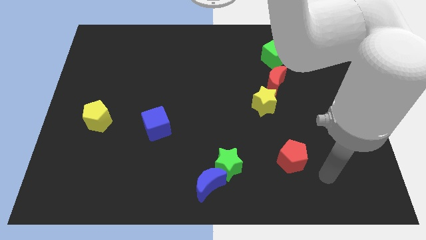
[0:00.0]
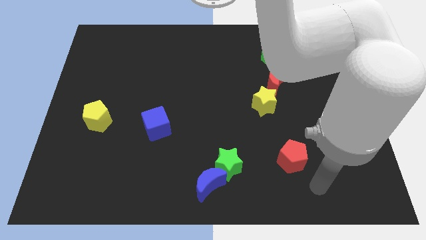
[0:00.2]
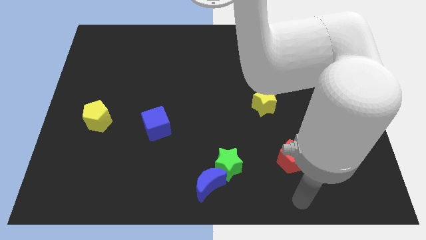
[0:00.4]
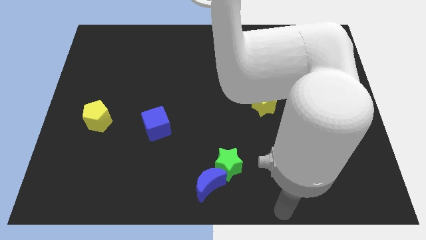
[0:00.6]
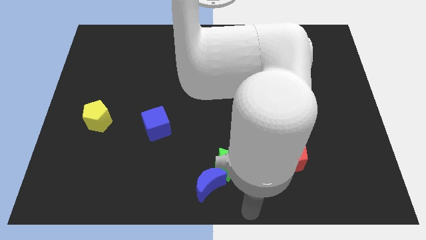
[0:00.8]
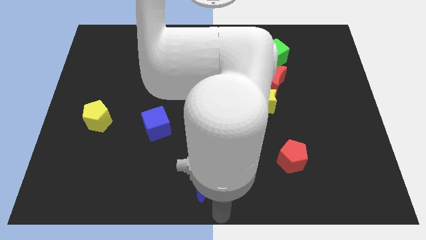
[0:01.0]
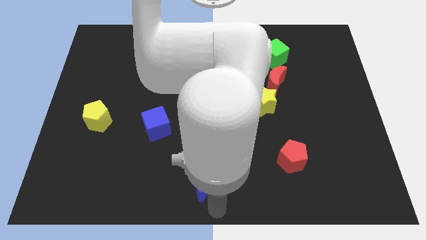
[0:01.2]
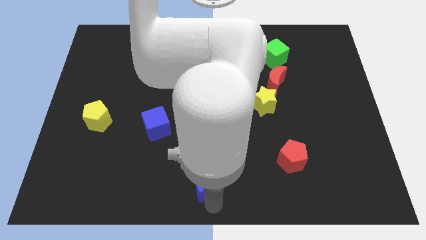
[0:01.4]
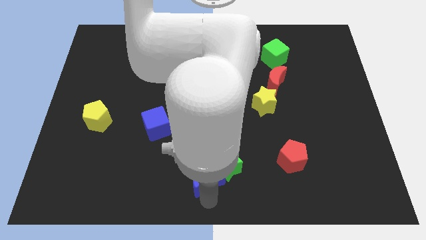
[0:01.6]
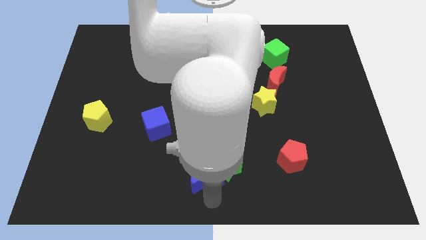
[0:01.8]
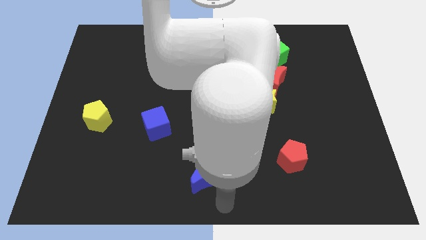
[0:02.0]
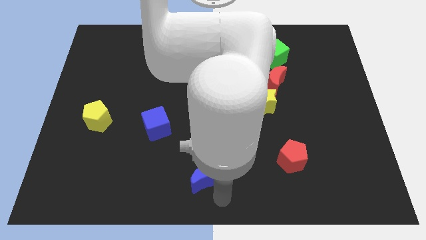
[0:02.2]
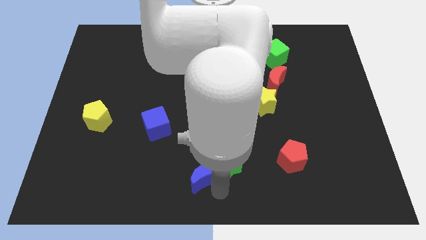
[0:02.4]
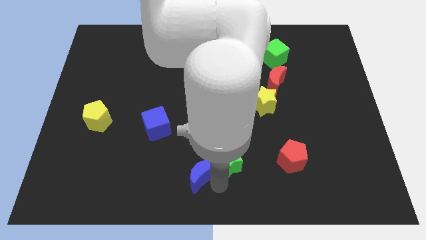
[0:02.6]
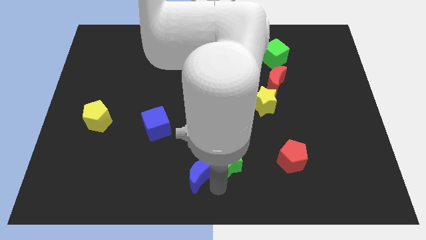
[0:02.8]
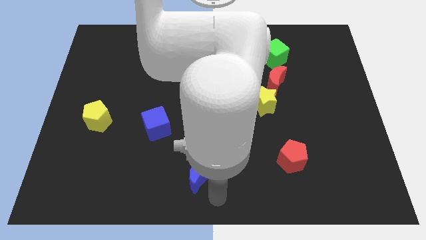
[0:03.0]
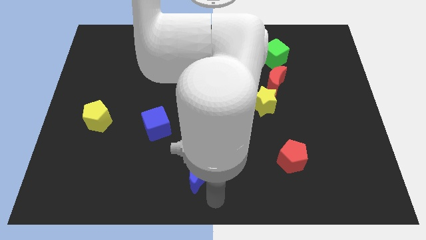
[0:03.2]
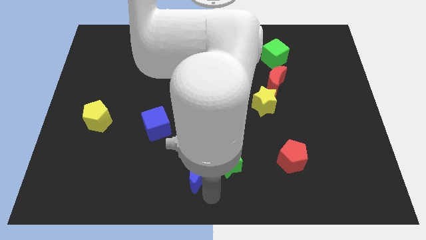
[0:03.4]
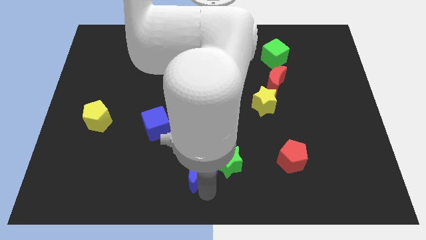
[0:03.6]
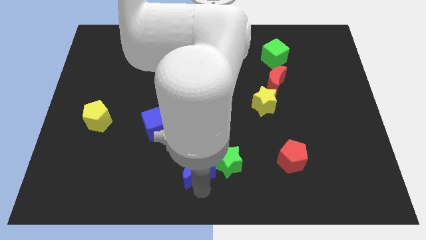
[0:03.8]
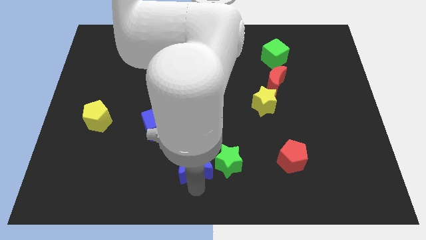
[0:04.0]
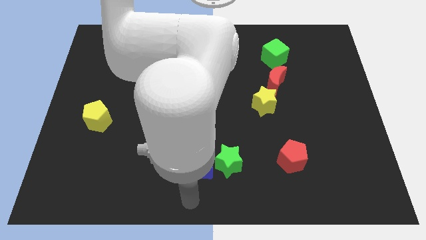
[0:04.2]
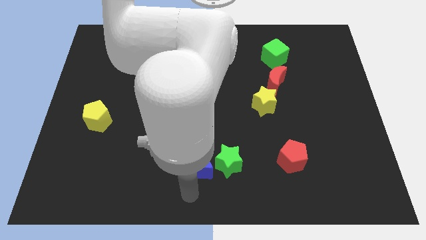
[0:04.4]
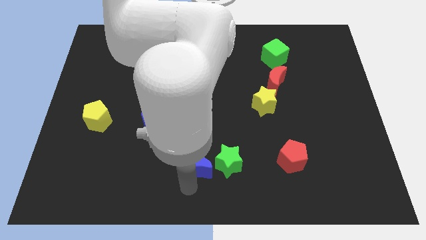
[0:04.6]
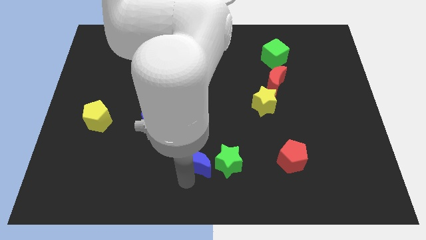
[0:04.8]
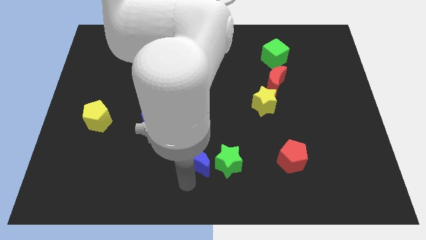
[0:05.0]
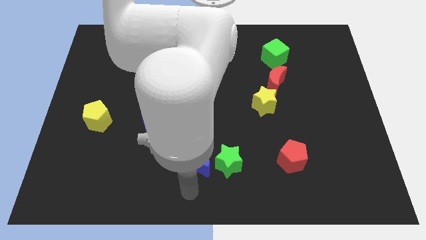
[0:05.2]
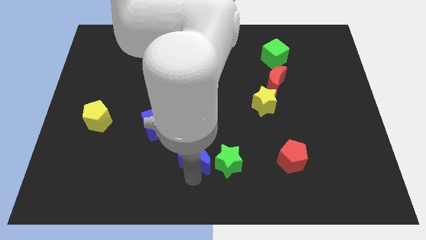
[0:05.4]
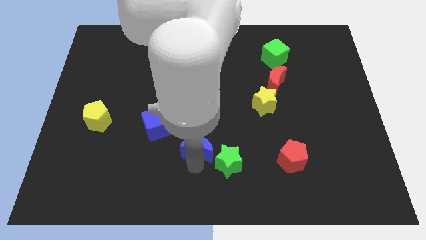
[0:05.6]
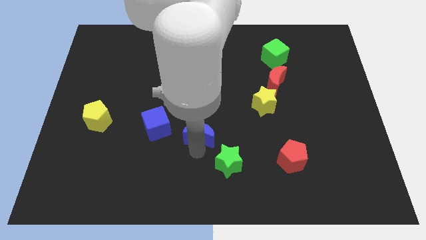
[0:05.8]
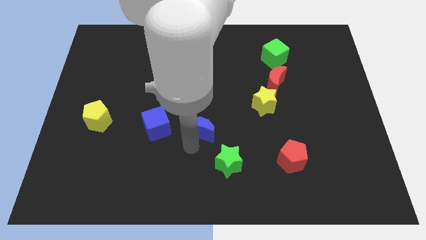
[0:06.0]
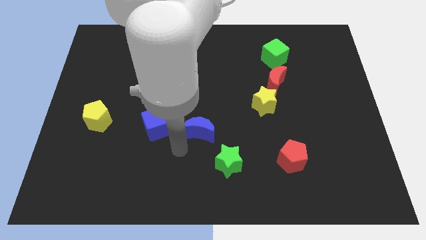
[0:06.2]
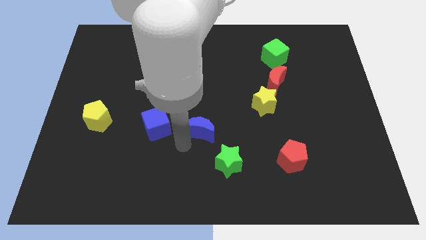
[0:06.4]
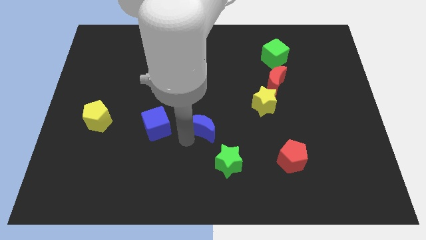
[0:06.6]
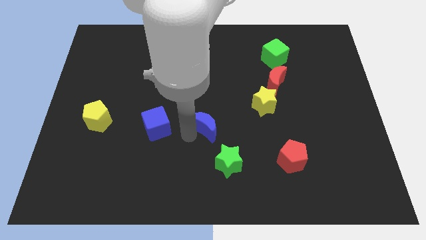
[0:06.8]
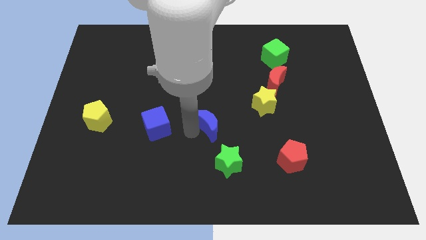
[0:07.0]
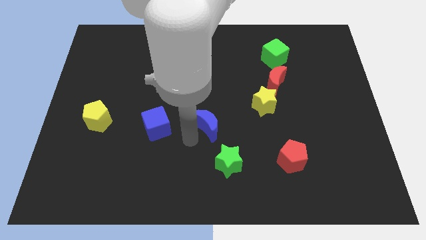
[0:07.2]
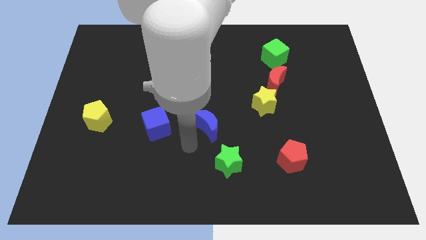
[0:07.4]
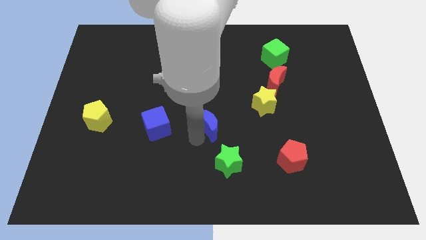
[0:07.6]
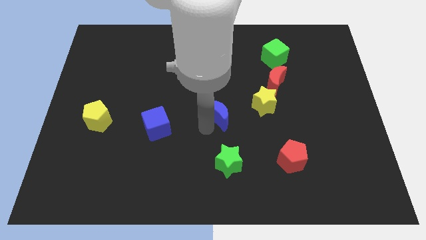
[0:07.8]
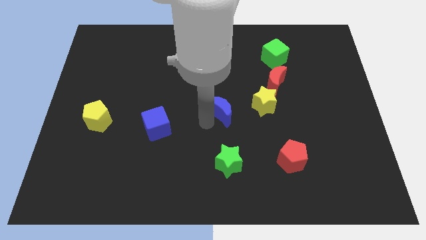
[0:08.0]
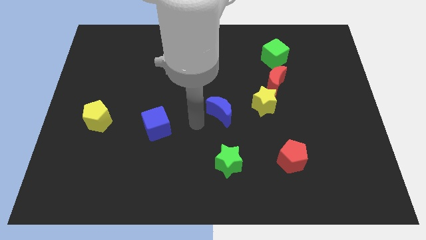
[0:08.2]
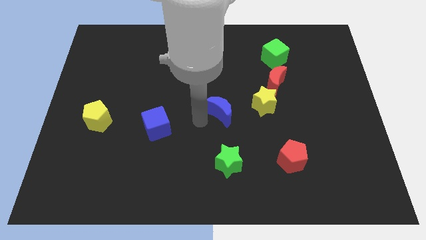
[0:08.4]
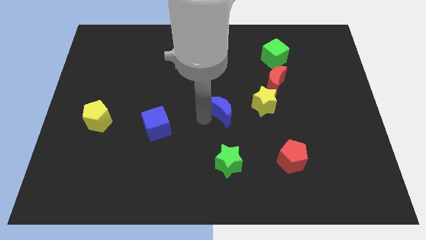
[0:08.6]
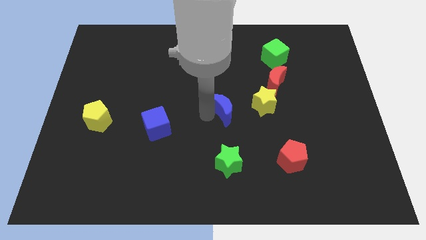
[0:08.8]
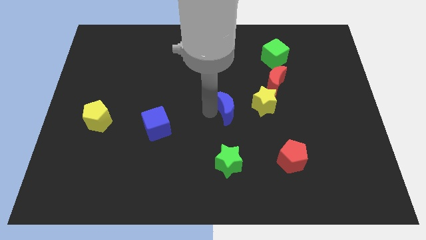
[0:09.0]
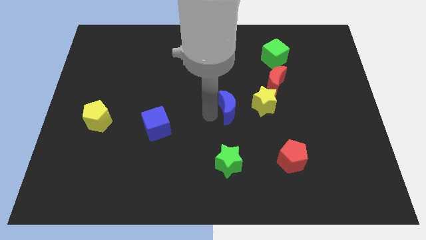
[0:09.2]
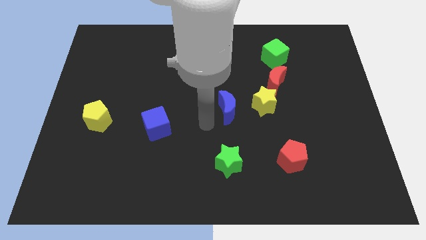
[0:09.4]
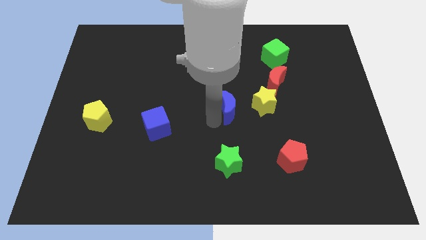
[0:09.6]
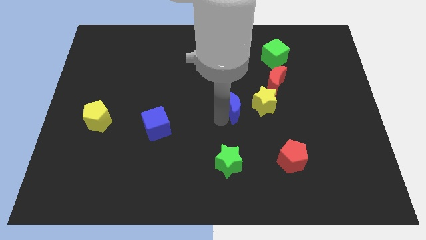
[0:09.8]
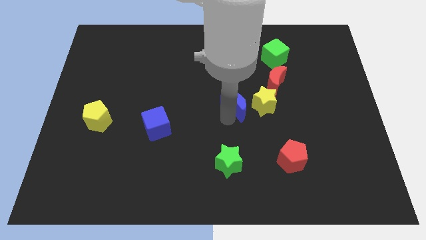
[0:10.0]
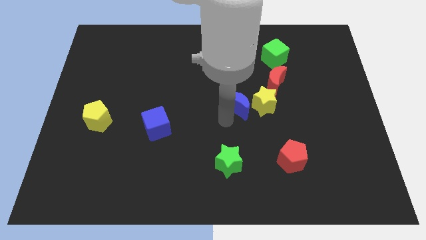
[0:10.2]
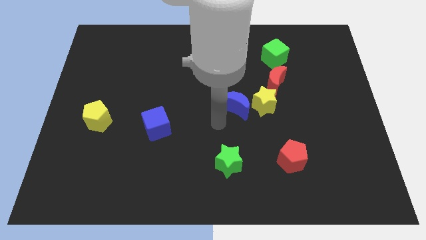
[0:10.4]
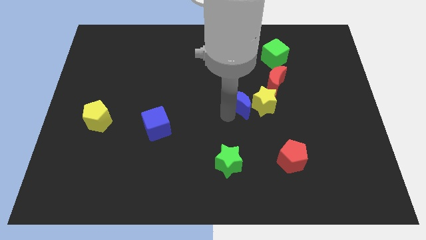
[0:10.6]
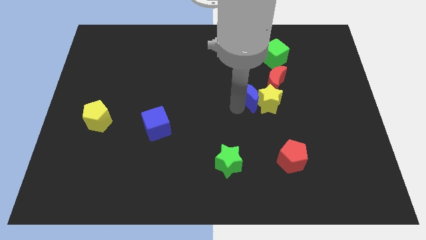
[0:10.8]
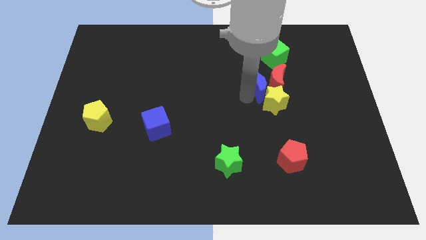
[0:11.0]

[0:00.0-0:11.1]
push the blue moon close to the red moon

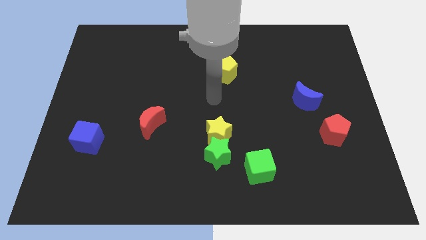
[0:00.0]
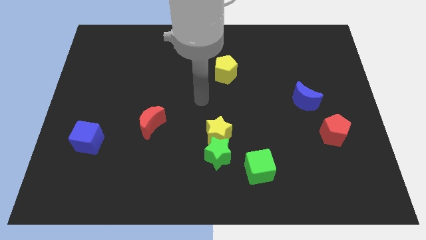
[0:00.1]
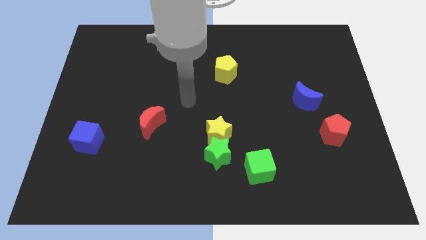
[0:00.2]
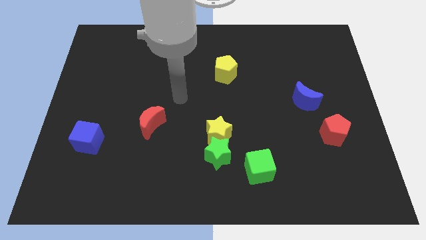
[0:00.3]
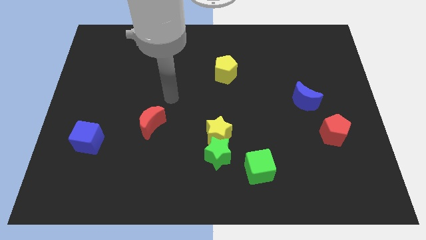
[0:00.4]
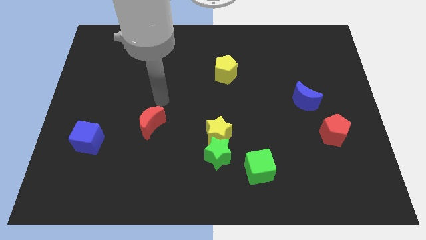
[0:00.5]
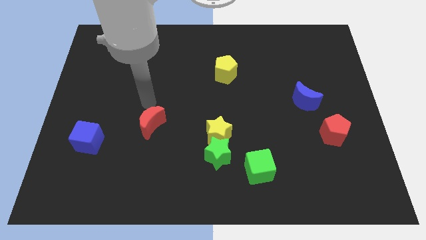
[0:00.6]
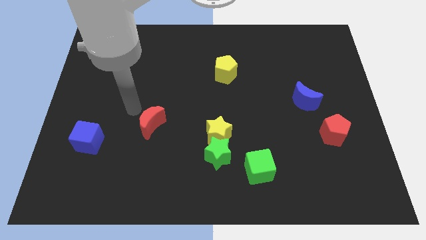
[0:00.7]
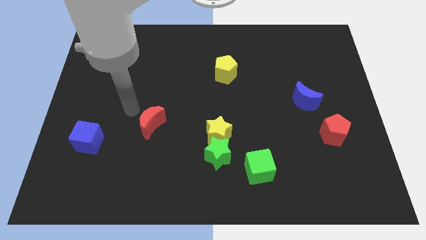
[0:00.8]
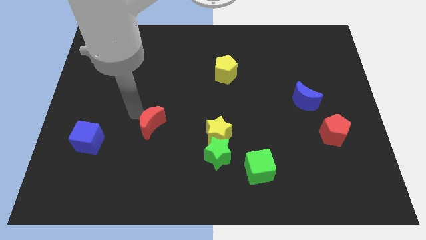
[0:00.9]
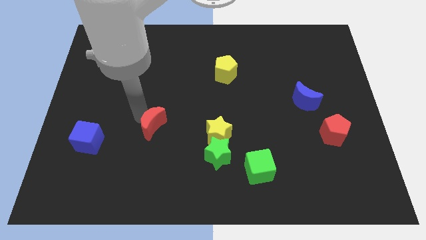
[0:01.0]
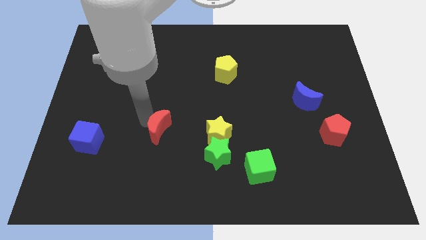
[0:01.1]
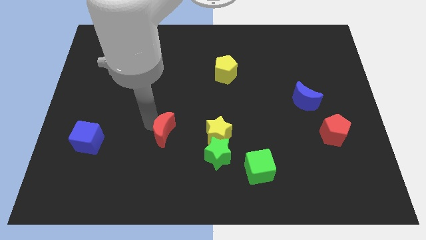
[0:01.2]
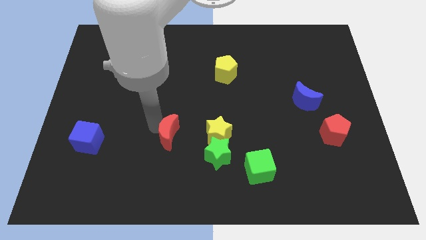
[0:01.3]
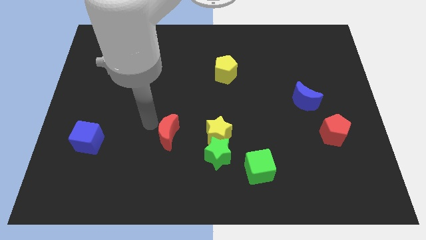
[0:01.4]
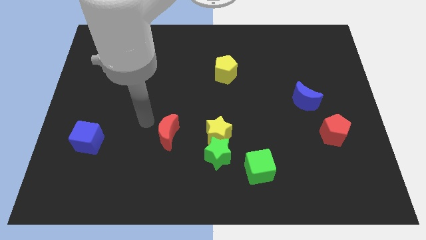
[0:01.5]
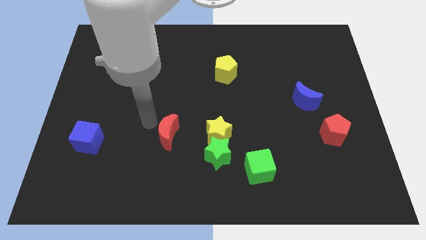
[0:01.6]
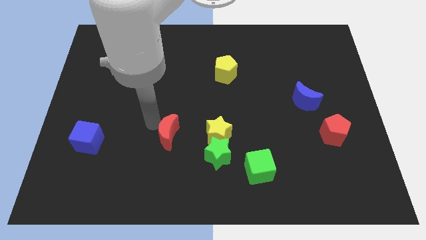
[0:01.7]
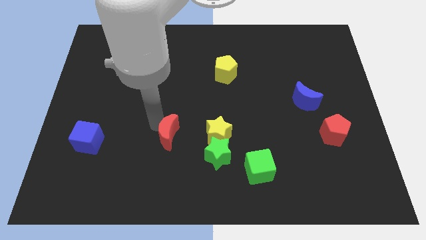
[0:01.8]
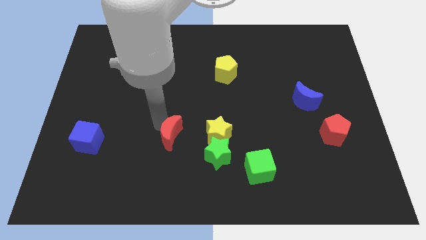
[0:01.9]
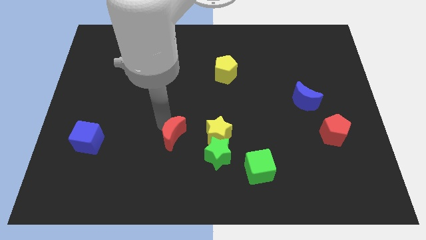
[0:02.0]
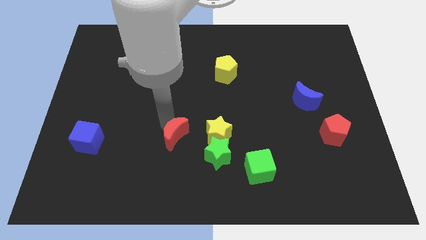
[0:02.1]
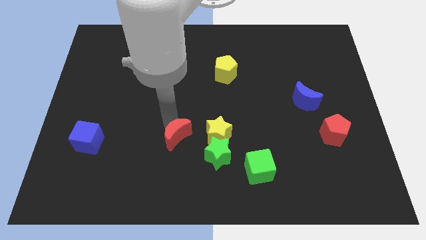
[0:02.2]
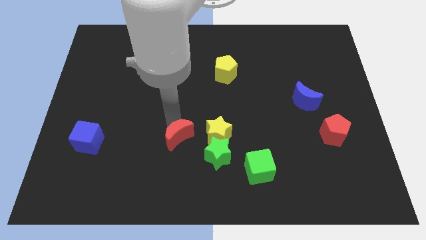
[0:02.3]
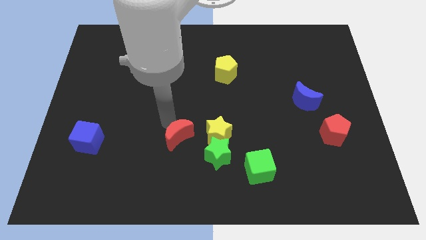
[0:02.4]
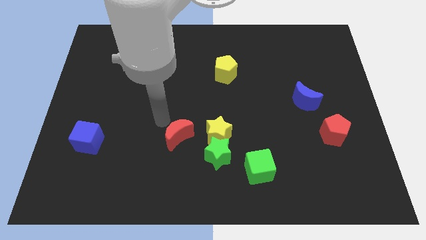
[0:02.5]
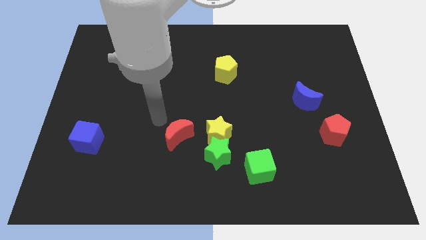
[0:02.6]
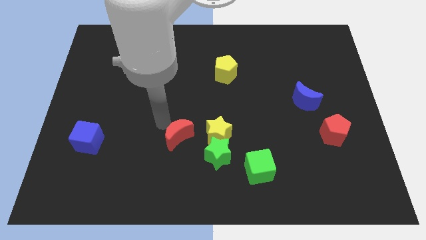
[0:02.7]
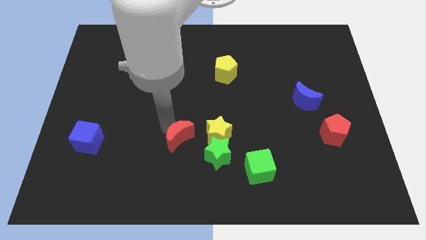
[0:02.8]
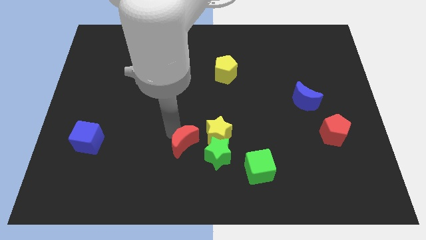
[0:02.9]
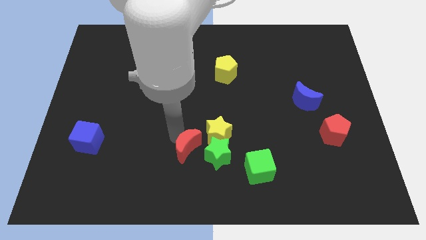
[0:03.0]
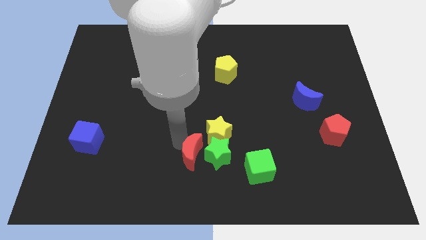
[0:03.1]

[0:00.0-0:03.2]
push the red moon next to the green star
